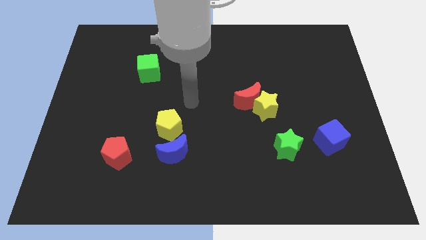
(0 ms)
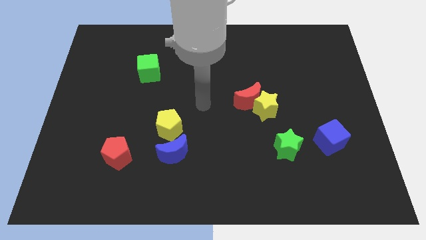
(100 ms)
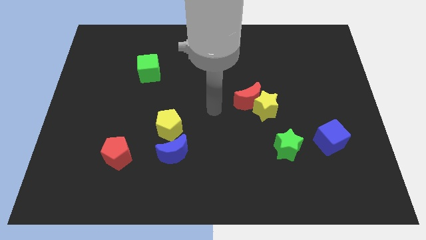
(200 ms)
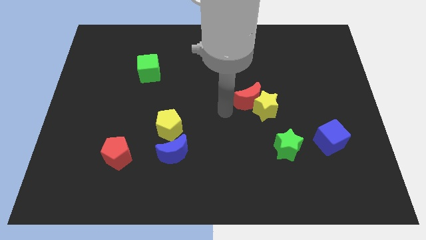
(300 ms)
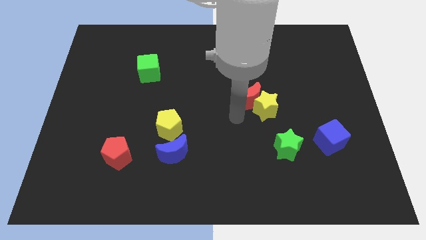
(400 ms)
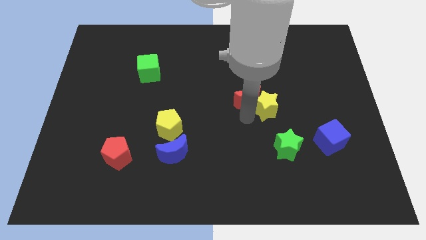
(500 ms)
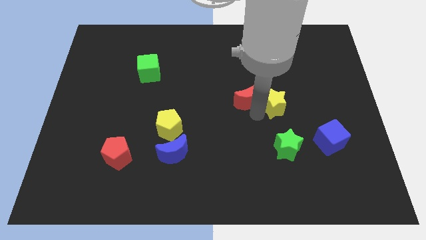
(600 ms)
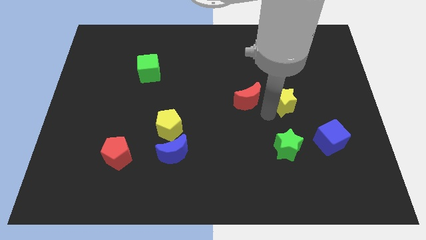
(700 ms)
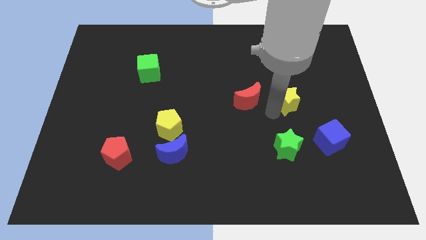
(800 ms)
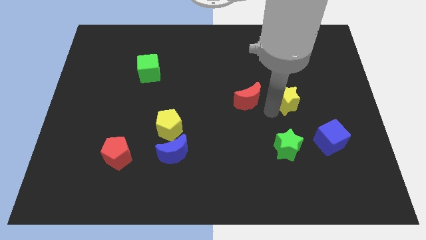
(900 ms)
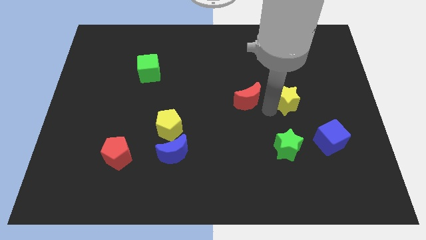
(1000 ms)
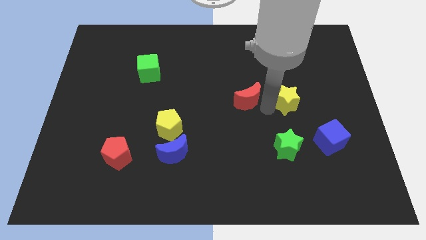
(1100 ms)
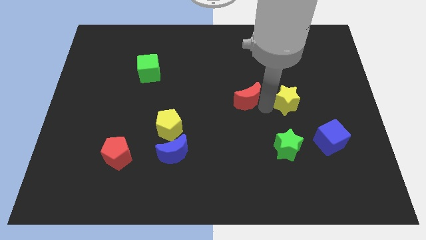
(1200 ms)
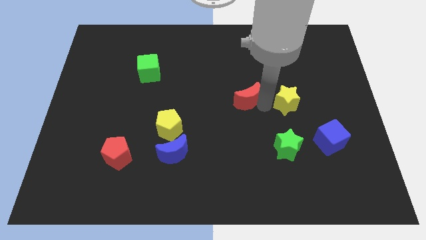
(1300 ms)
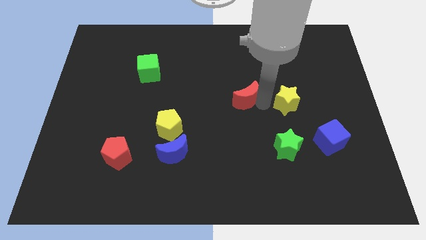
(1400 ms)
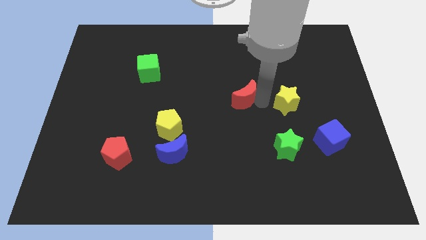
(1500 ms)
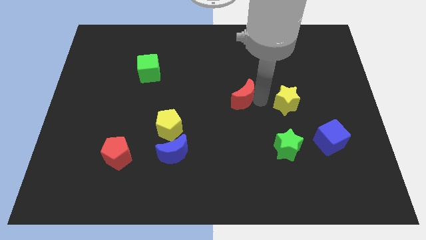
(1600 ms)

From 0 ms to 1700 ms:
pull the red moon apart from the yellow star

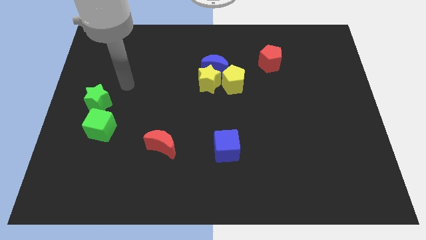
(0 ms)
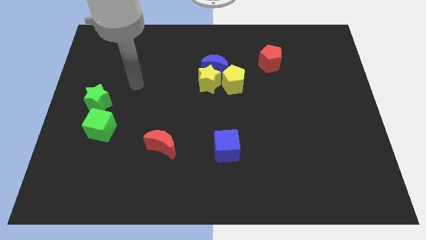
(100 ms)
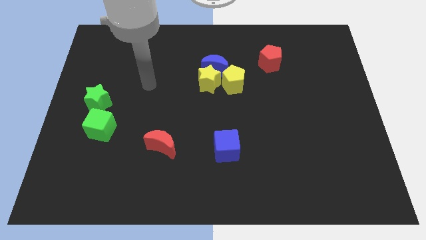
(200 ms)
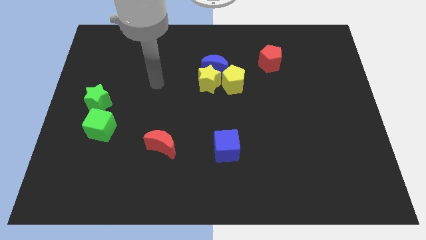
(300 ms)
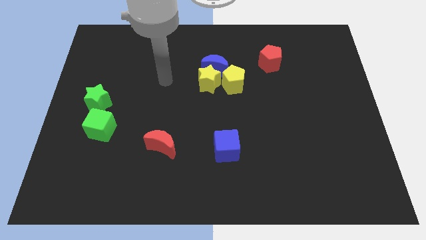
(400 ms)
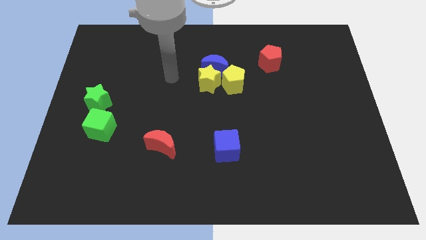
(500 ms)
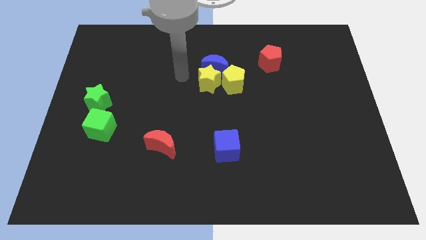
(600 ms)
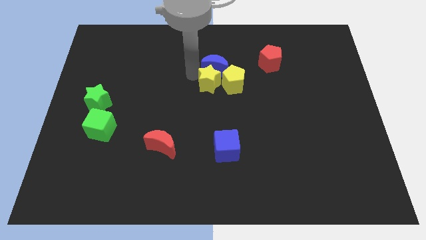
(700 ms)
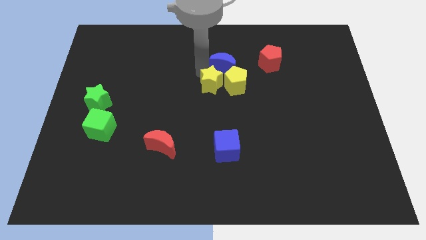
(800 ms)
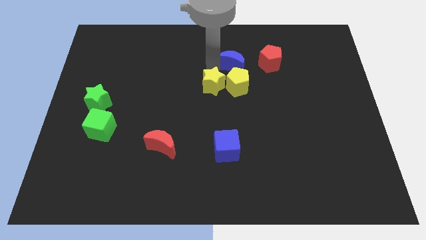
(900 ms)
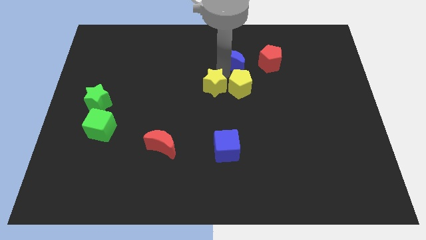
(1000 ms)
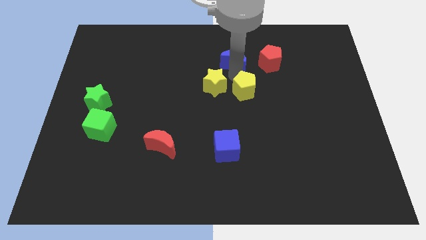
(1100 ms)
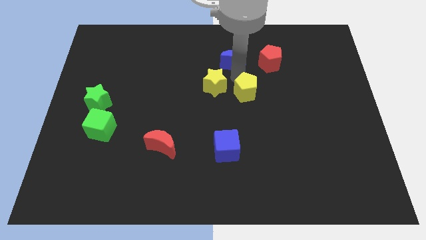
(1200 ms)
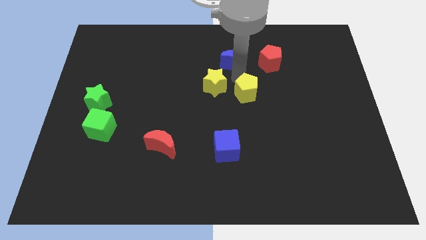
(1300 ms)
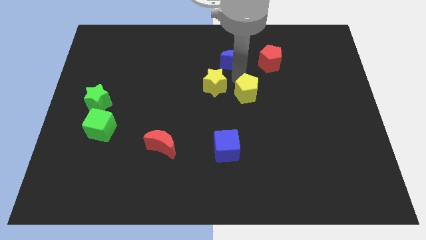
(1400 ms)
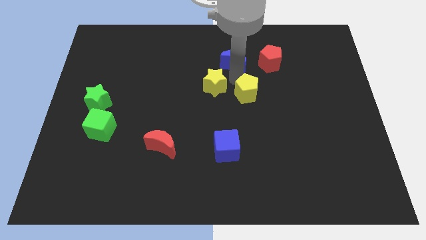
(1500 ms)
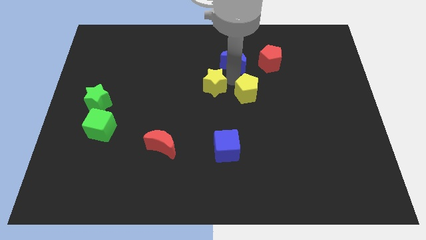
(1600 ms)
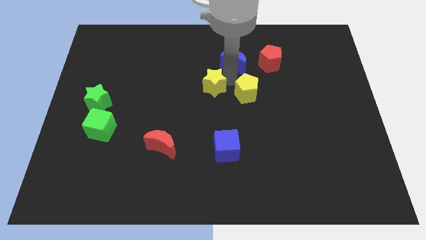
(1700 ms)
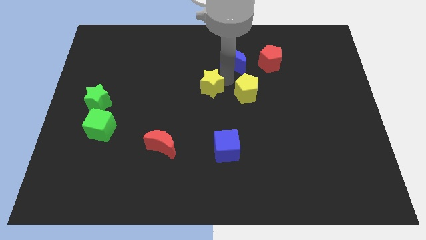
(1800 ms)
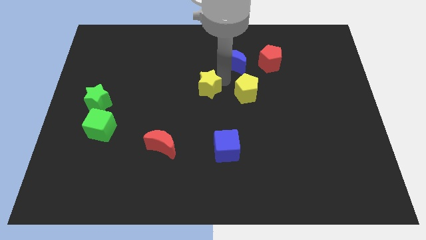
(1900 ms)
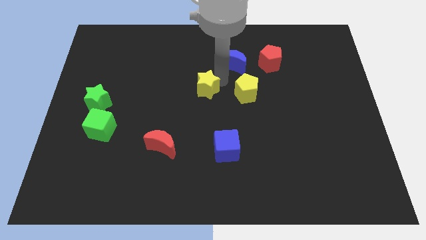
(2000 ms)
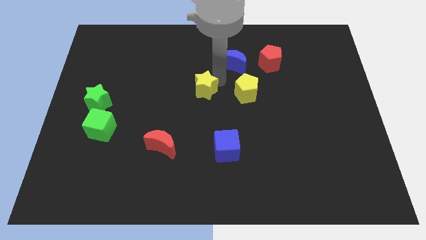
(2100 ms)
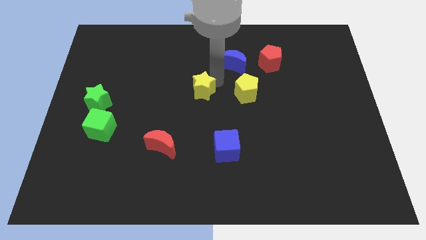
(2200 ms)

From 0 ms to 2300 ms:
move the yellow star away from the blue moon and yellow pentagon

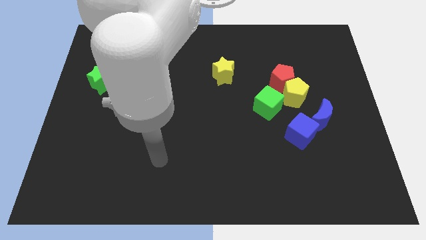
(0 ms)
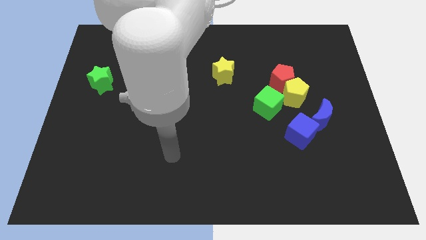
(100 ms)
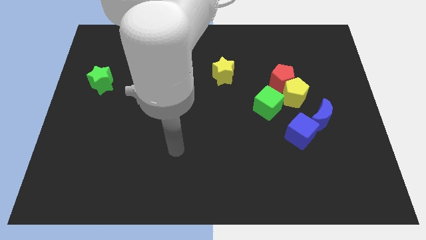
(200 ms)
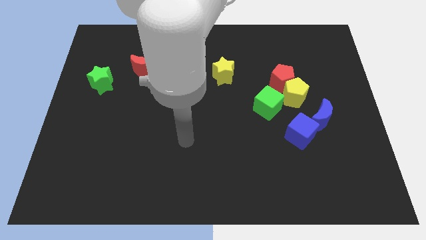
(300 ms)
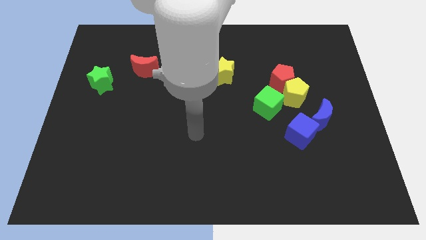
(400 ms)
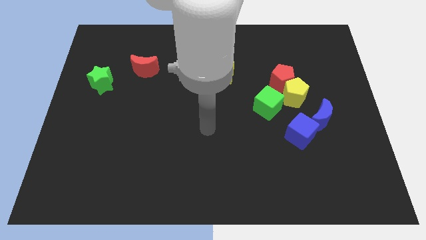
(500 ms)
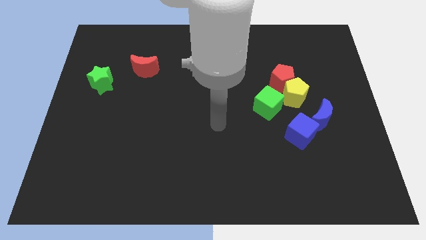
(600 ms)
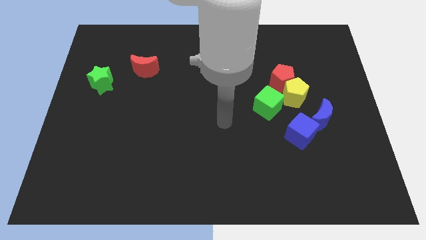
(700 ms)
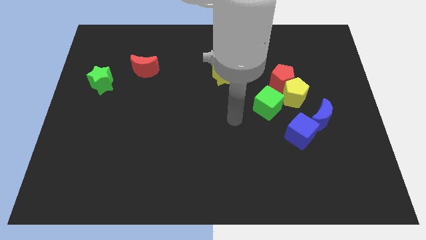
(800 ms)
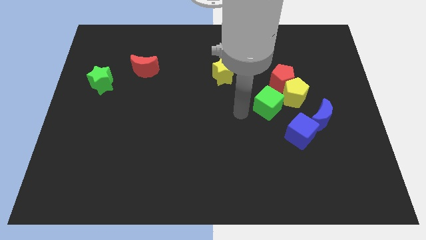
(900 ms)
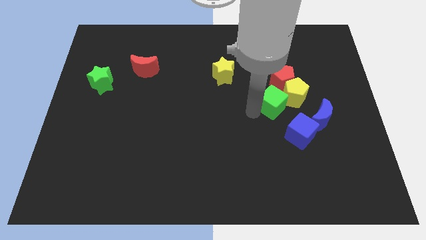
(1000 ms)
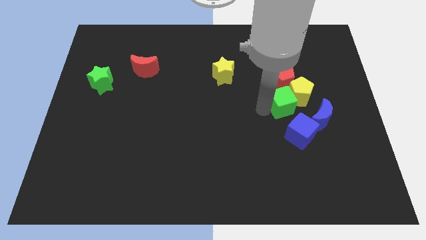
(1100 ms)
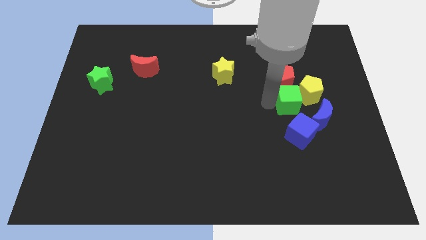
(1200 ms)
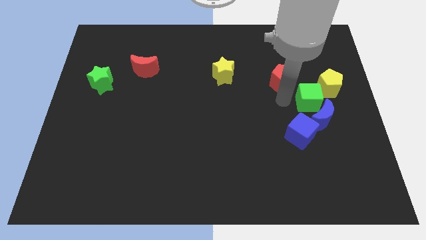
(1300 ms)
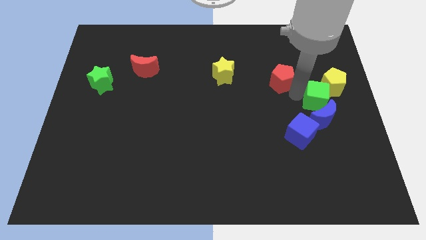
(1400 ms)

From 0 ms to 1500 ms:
separate the red pentagon from the yellow pentagon and green cube

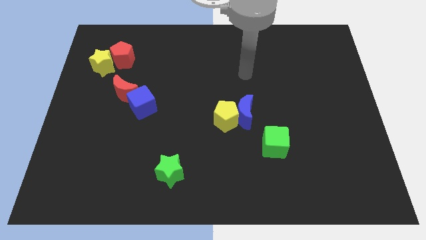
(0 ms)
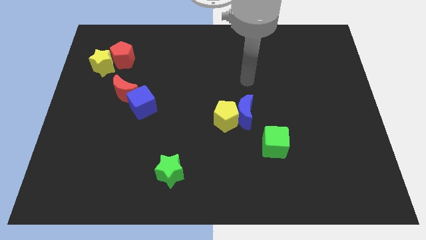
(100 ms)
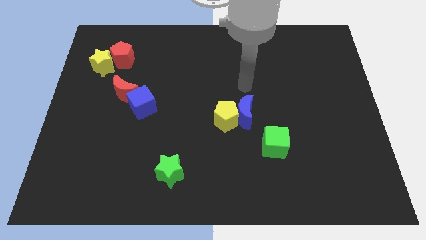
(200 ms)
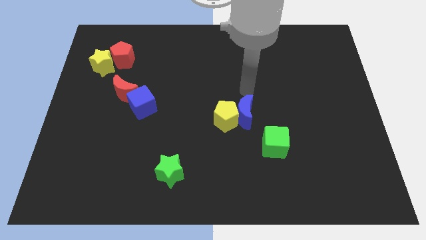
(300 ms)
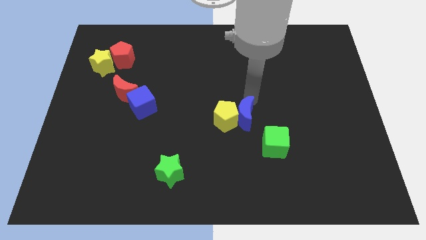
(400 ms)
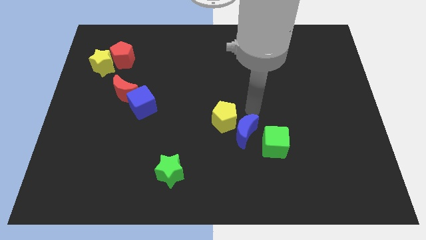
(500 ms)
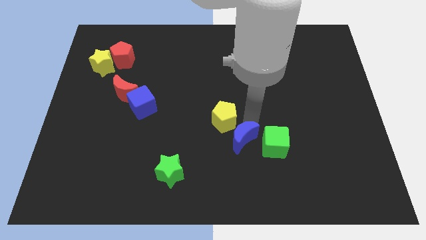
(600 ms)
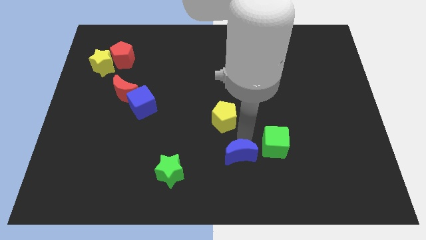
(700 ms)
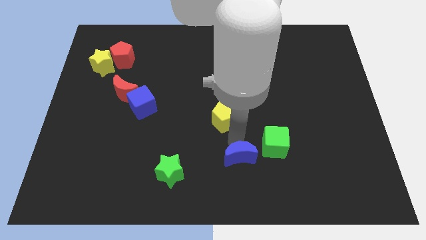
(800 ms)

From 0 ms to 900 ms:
pull the yellow pentagon apart from the blue moon

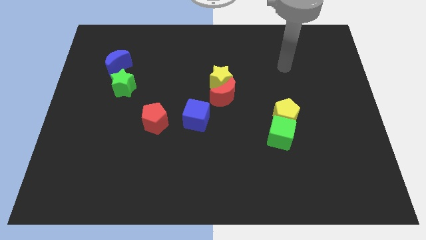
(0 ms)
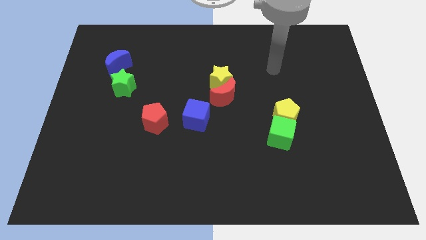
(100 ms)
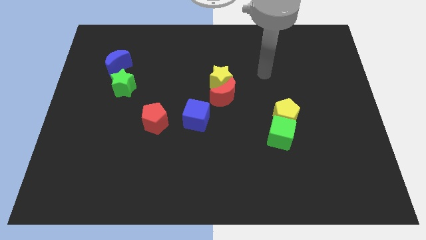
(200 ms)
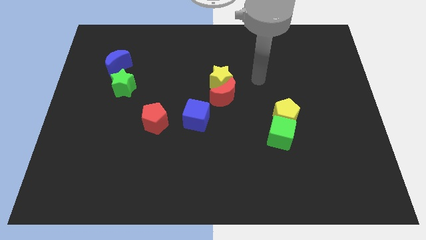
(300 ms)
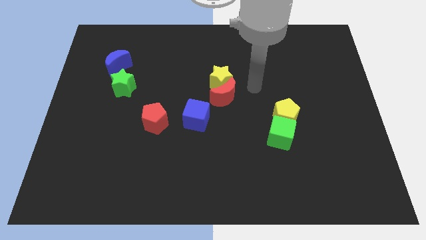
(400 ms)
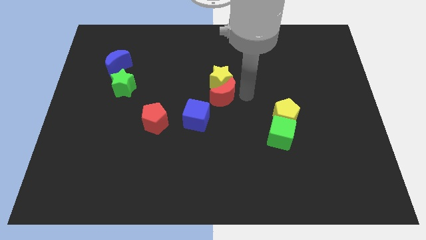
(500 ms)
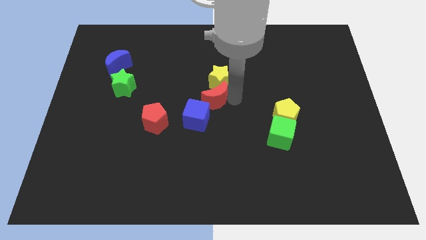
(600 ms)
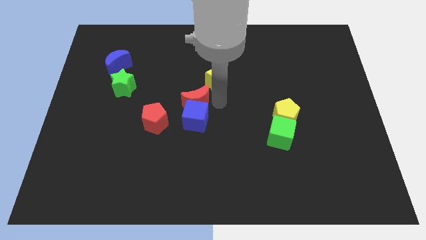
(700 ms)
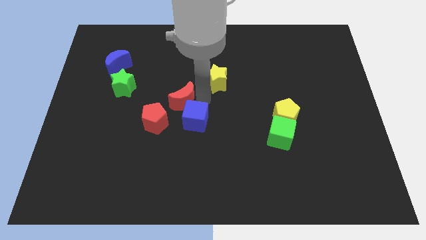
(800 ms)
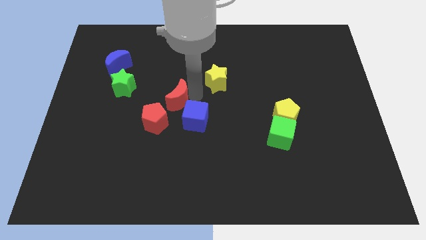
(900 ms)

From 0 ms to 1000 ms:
move the yellow star away from the red moon

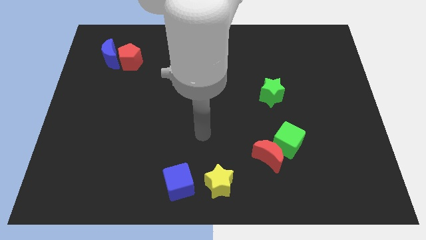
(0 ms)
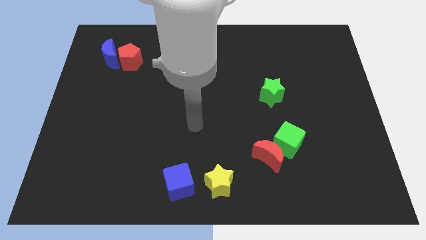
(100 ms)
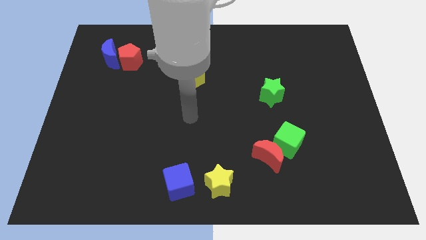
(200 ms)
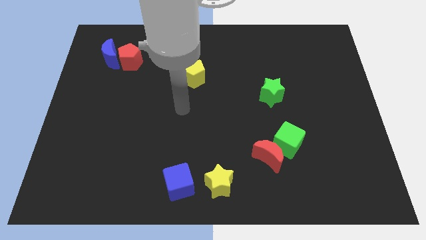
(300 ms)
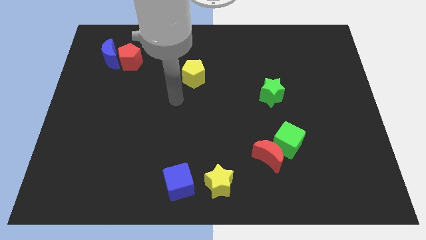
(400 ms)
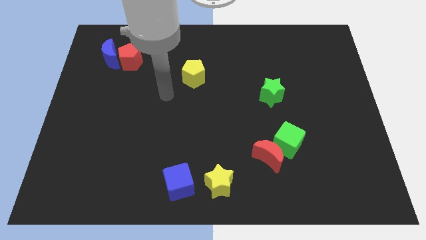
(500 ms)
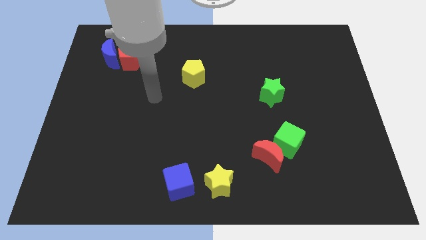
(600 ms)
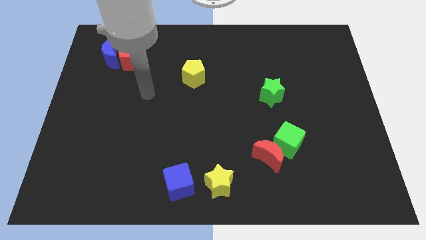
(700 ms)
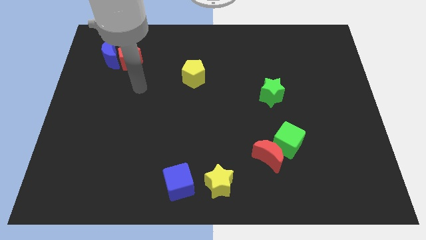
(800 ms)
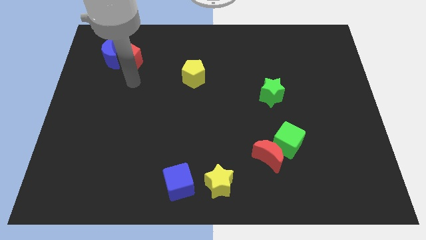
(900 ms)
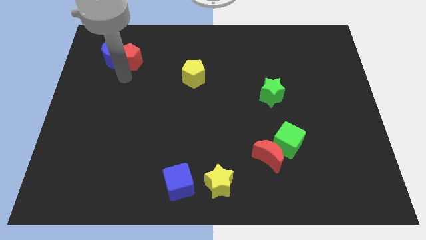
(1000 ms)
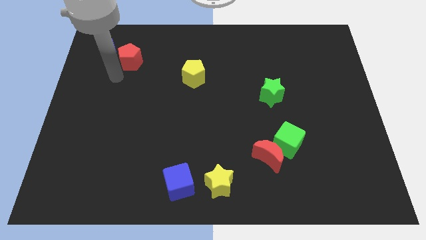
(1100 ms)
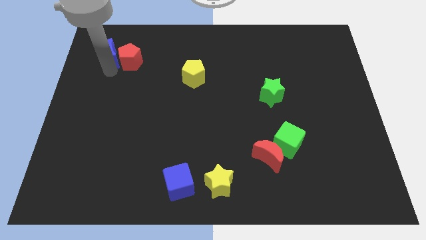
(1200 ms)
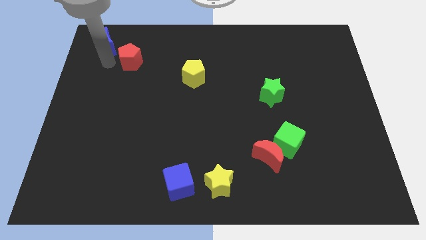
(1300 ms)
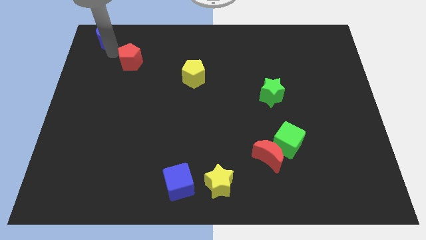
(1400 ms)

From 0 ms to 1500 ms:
separate the red pentagon from the blue moon

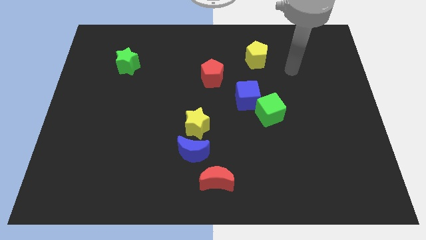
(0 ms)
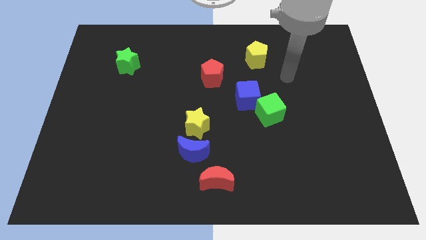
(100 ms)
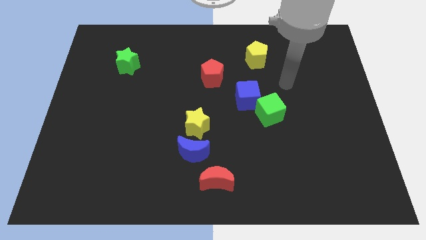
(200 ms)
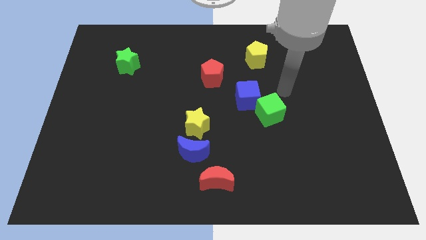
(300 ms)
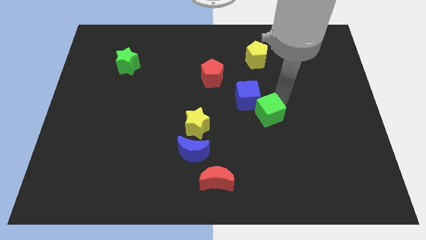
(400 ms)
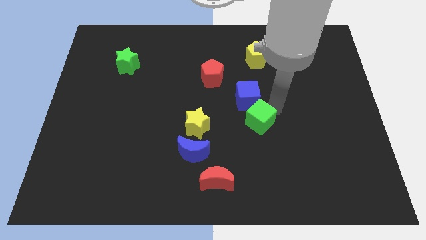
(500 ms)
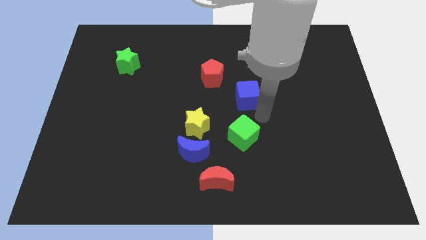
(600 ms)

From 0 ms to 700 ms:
separate the blue cube from the green cube
